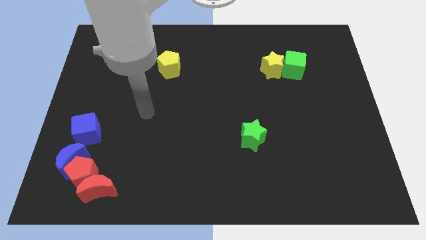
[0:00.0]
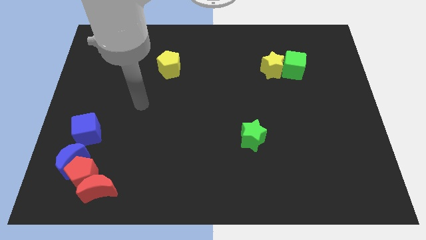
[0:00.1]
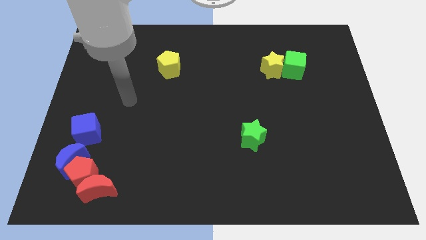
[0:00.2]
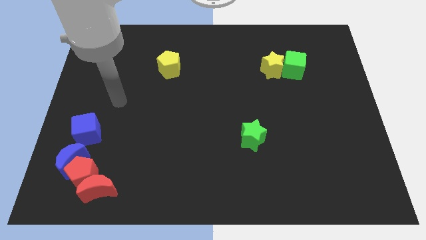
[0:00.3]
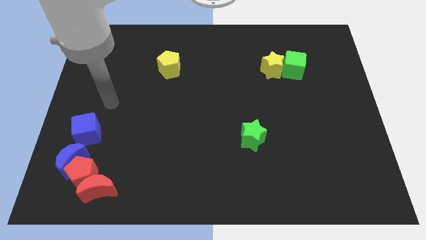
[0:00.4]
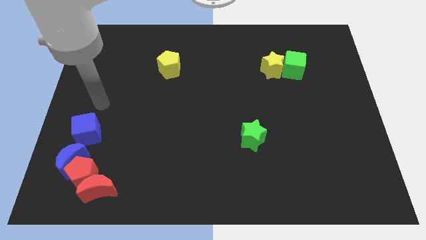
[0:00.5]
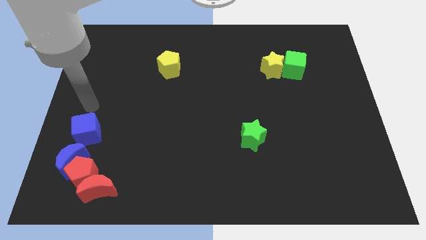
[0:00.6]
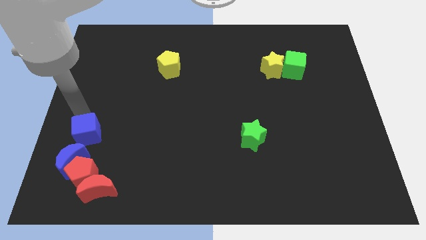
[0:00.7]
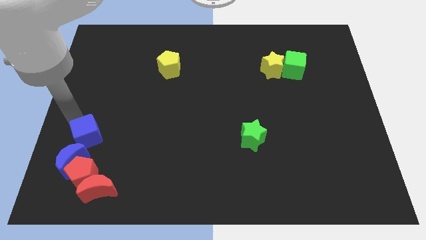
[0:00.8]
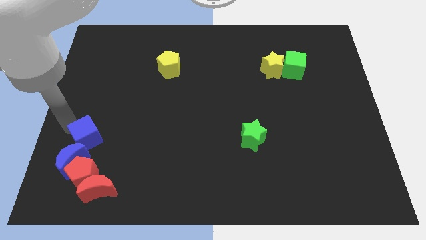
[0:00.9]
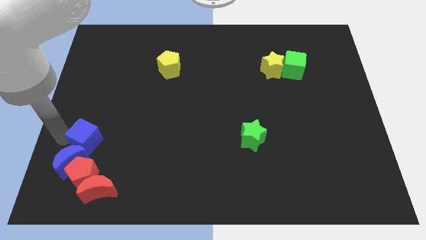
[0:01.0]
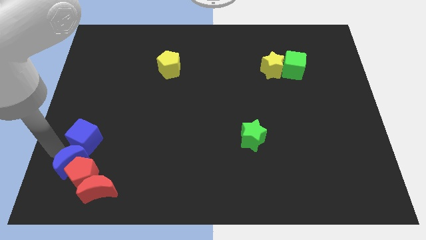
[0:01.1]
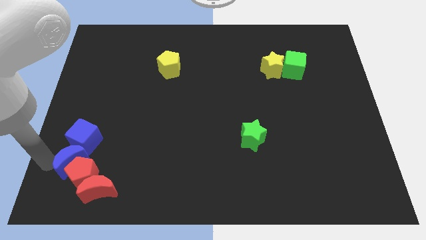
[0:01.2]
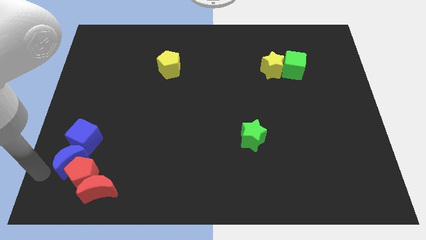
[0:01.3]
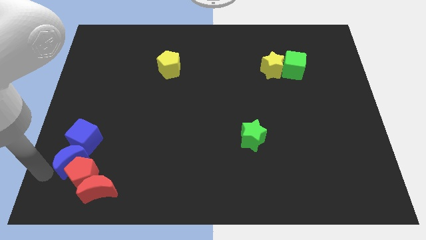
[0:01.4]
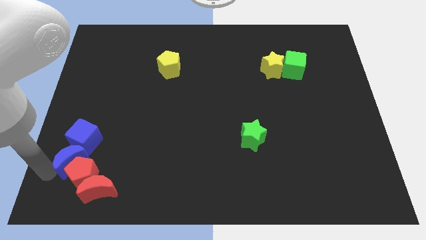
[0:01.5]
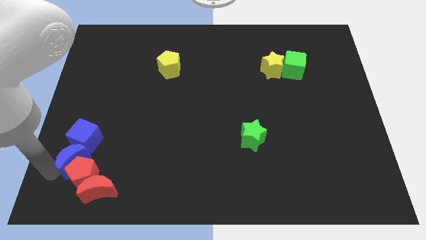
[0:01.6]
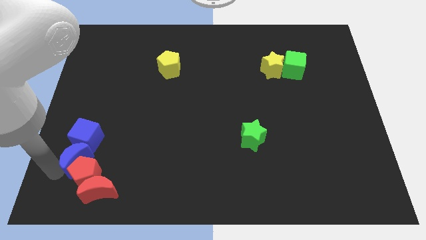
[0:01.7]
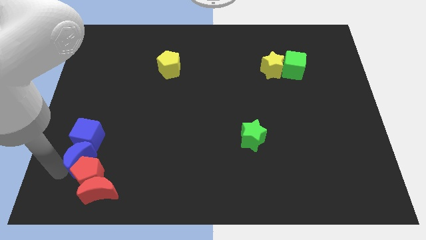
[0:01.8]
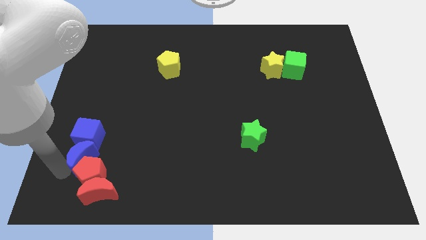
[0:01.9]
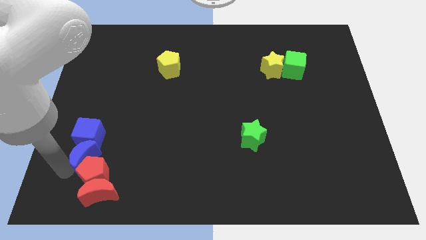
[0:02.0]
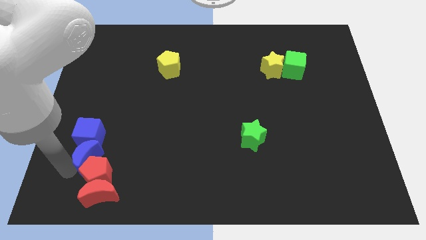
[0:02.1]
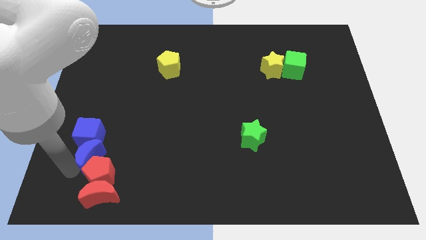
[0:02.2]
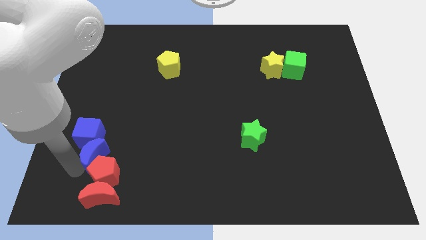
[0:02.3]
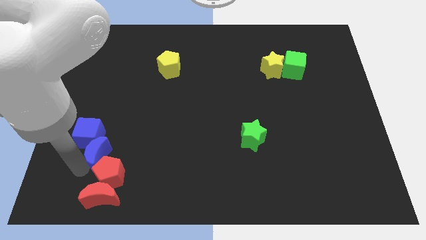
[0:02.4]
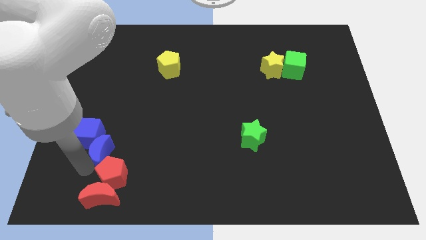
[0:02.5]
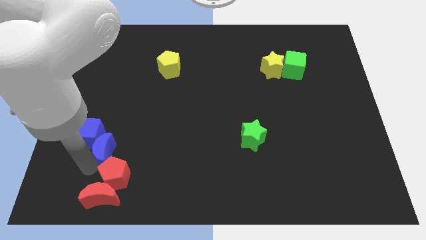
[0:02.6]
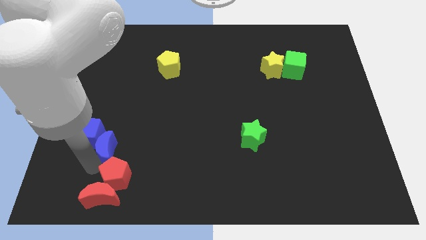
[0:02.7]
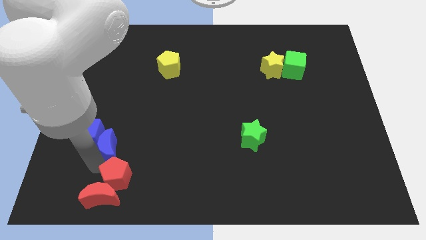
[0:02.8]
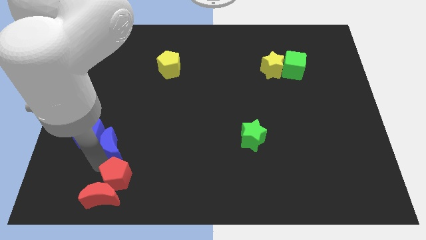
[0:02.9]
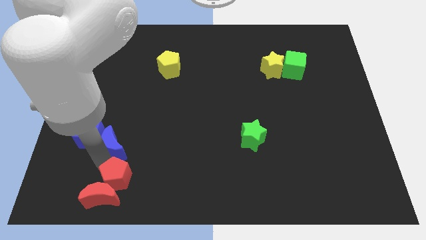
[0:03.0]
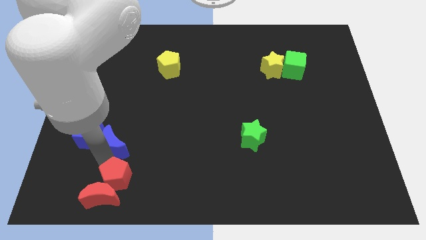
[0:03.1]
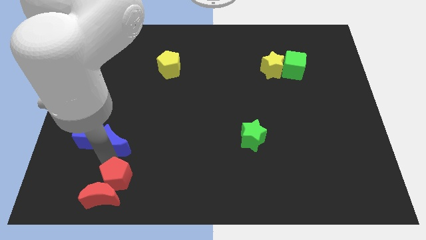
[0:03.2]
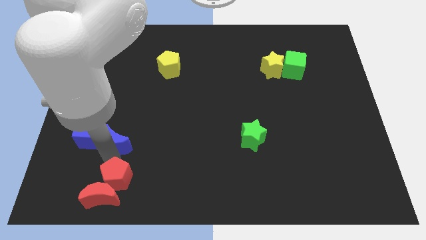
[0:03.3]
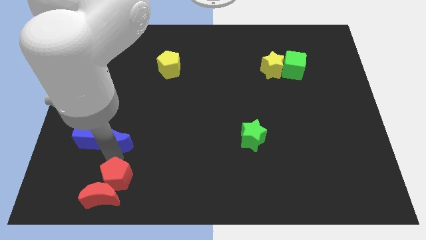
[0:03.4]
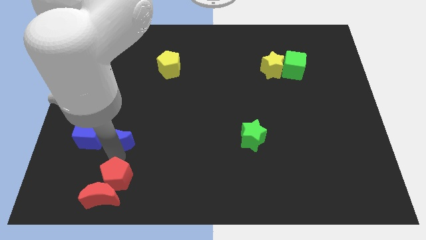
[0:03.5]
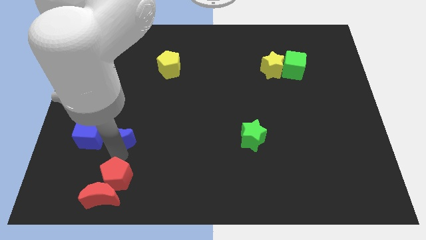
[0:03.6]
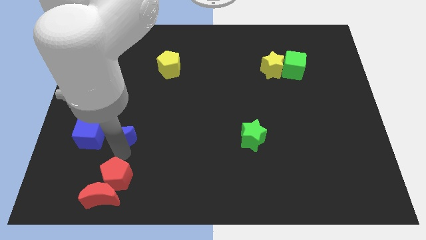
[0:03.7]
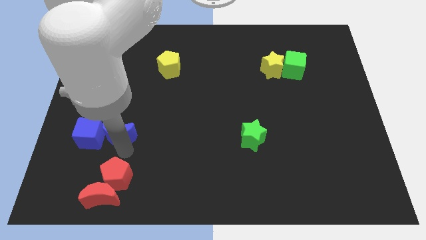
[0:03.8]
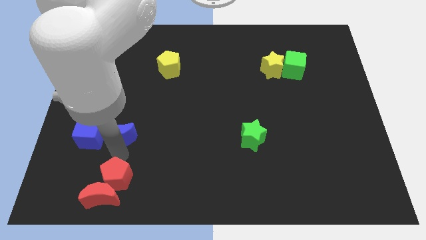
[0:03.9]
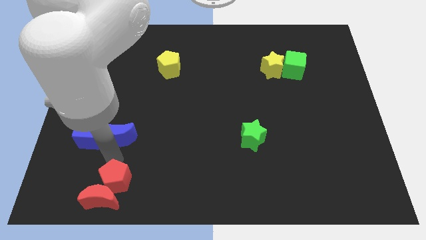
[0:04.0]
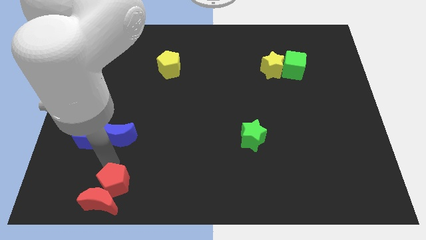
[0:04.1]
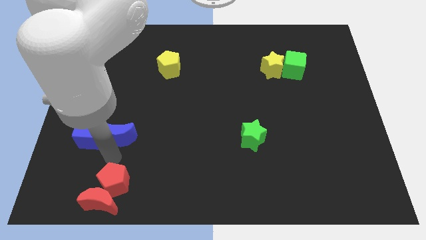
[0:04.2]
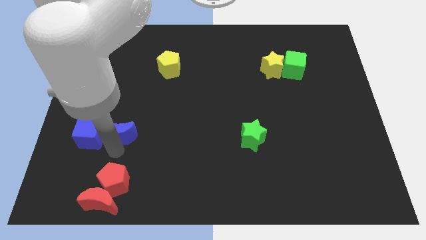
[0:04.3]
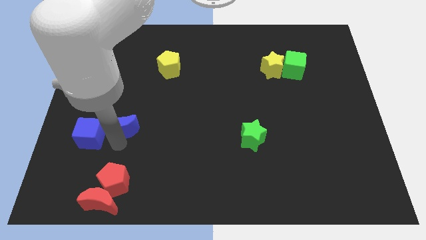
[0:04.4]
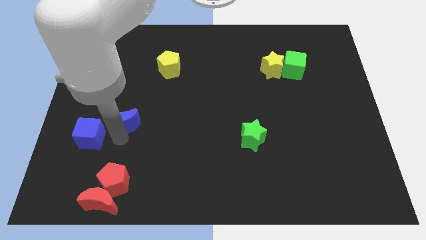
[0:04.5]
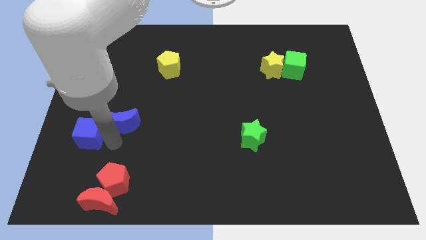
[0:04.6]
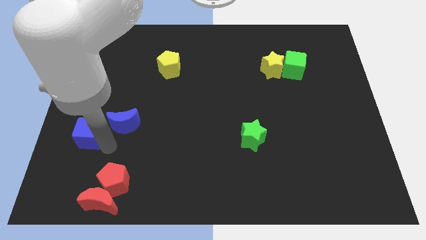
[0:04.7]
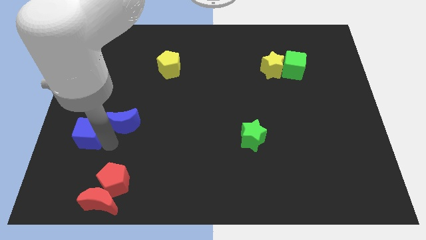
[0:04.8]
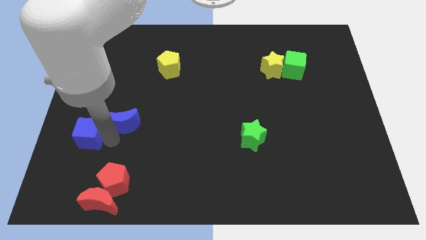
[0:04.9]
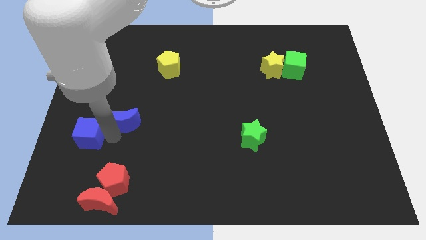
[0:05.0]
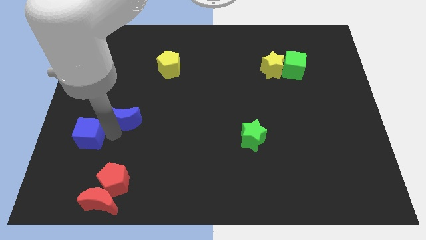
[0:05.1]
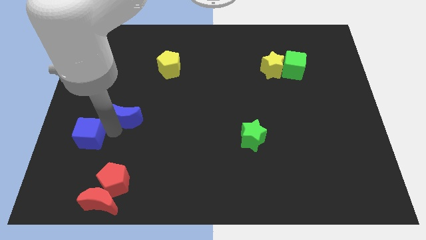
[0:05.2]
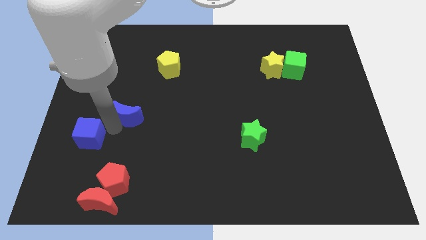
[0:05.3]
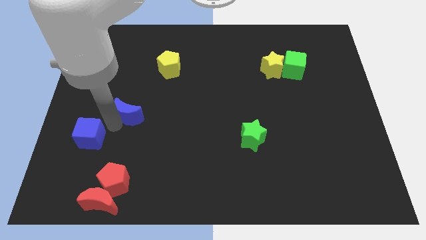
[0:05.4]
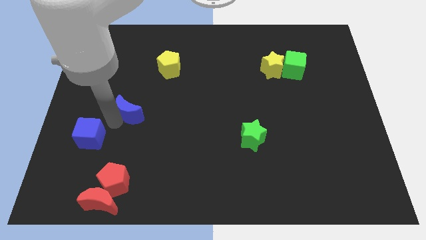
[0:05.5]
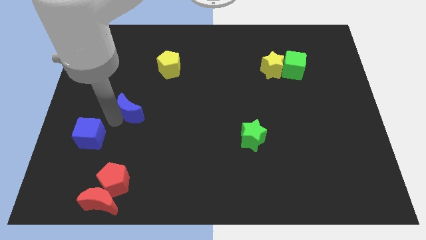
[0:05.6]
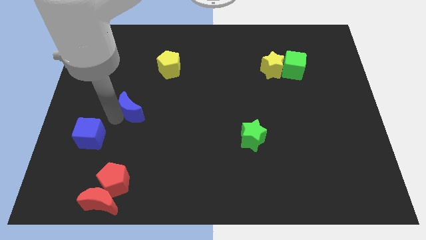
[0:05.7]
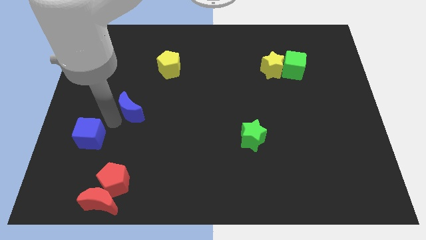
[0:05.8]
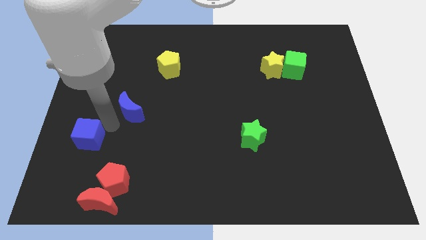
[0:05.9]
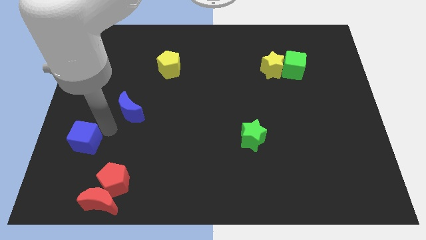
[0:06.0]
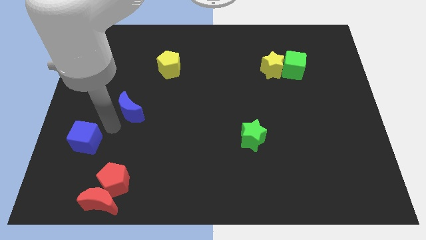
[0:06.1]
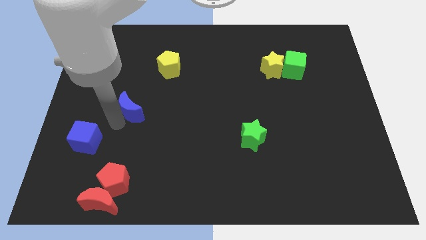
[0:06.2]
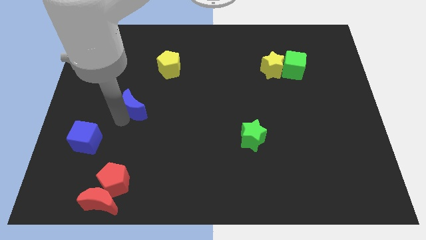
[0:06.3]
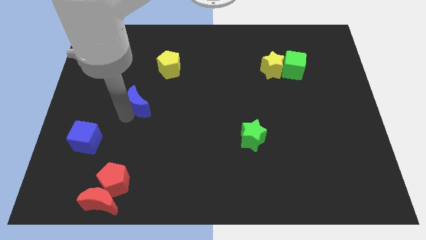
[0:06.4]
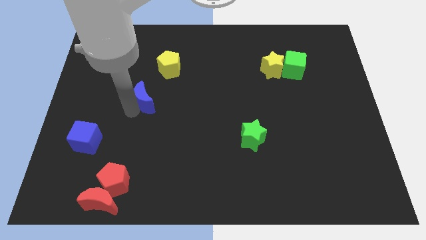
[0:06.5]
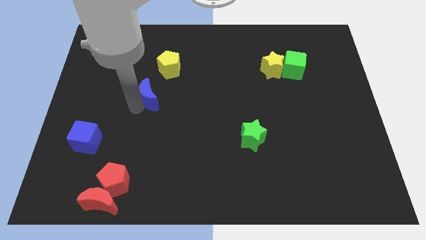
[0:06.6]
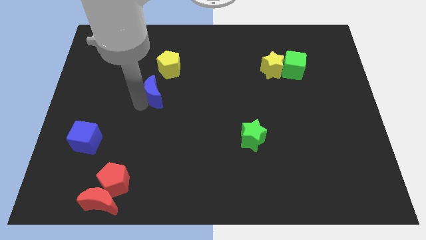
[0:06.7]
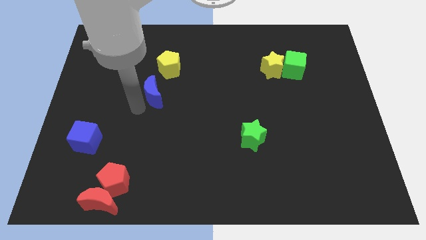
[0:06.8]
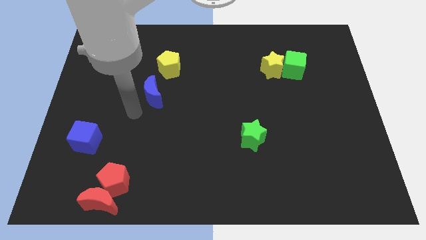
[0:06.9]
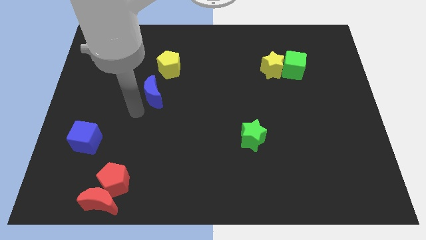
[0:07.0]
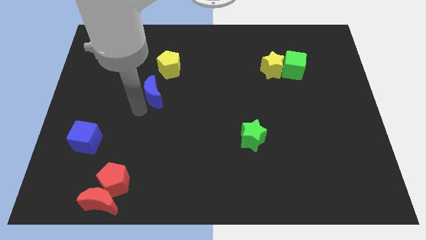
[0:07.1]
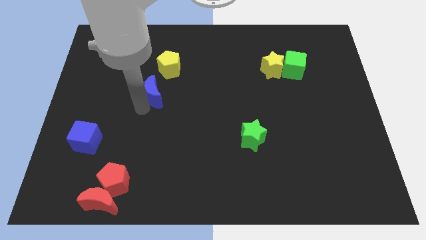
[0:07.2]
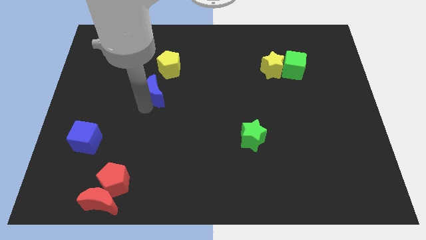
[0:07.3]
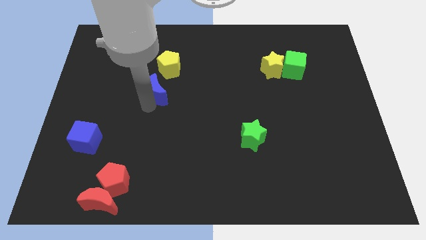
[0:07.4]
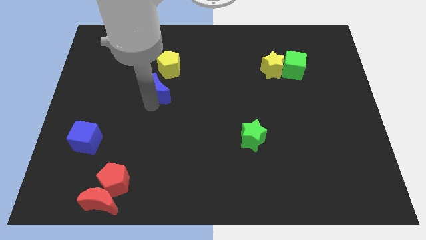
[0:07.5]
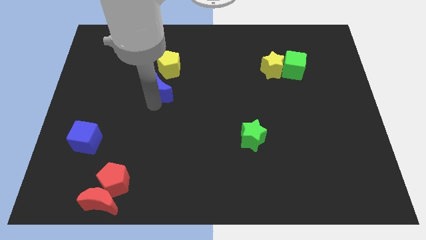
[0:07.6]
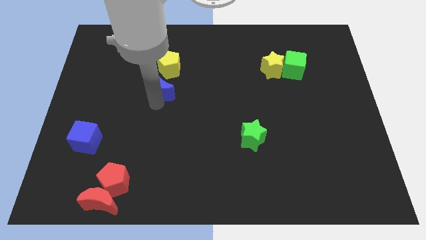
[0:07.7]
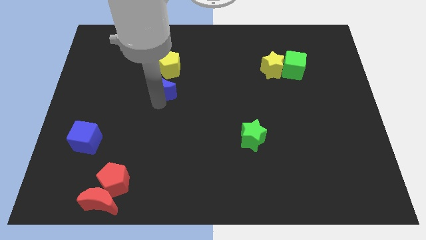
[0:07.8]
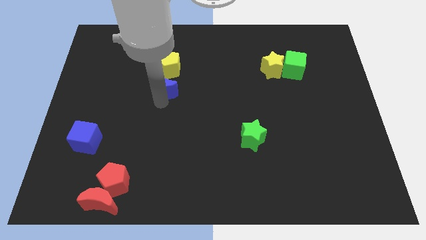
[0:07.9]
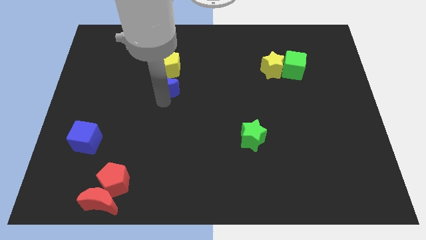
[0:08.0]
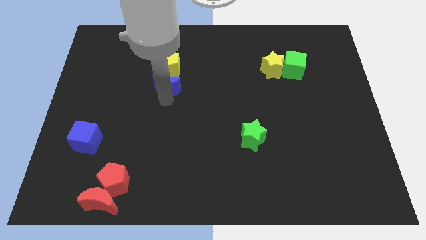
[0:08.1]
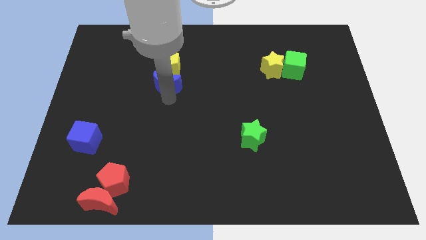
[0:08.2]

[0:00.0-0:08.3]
move the blue moon close to the yellow pentagon
